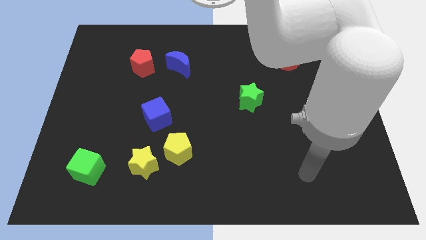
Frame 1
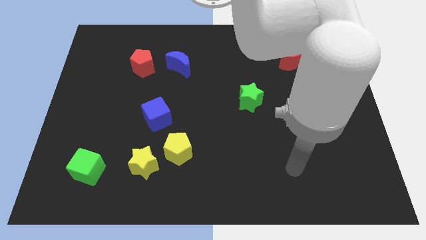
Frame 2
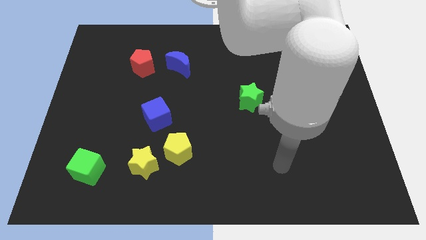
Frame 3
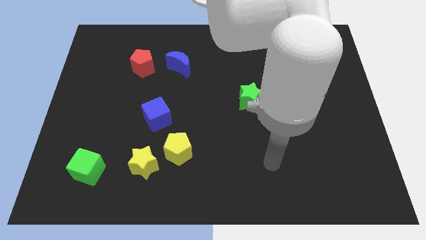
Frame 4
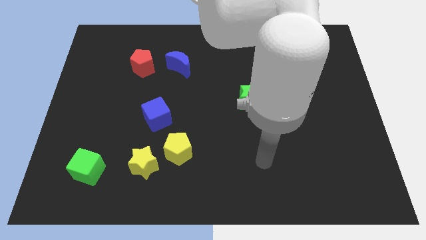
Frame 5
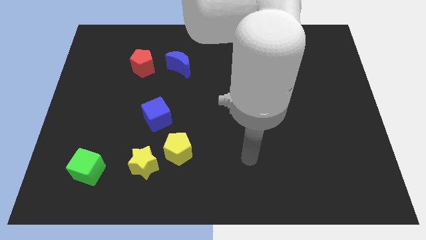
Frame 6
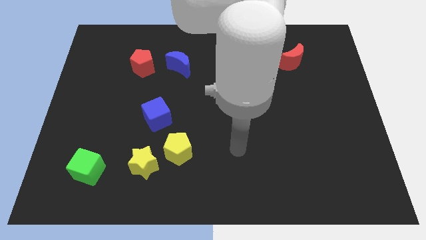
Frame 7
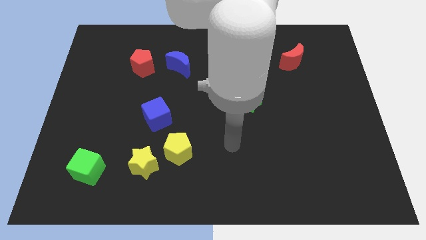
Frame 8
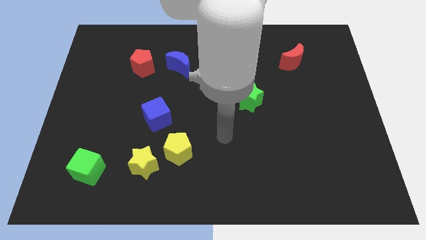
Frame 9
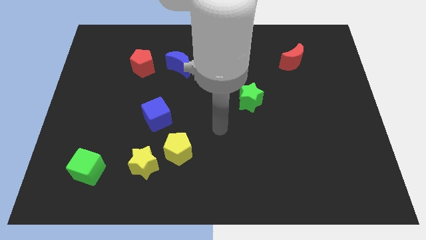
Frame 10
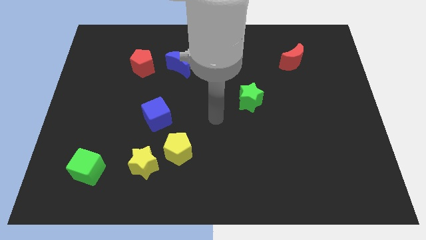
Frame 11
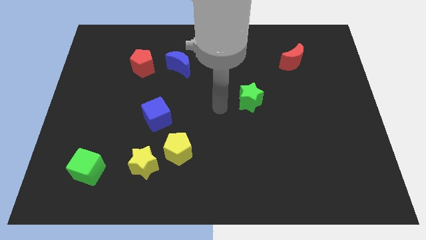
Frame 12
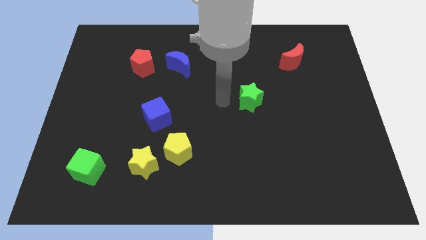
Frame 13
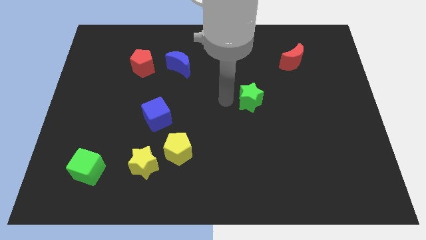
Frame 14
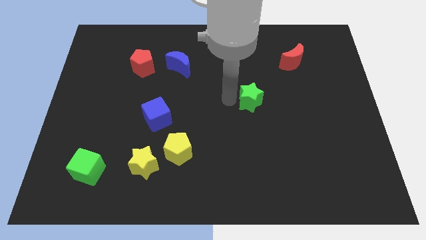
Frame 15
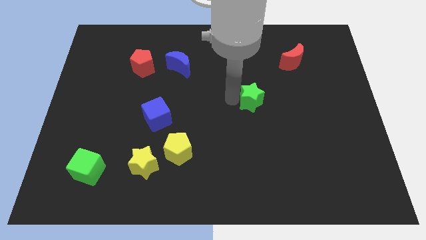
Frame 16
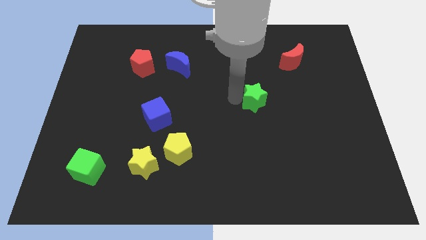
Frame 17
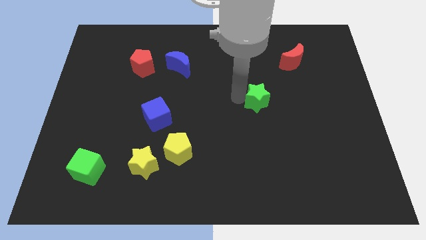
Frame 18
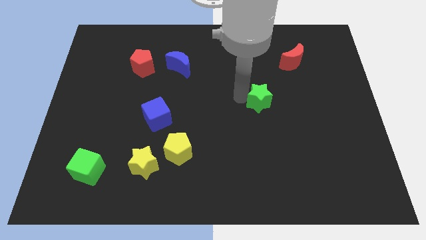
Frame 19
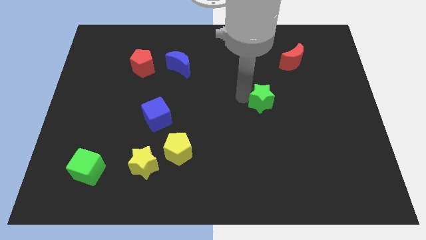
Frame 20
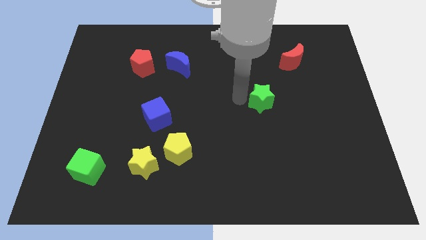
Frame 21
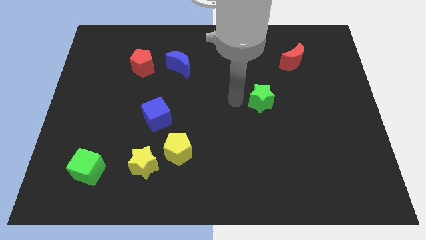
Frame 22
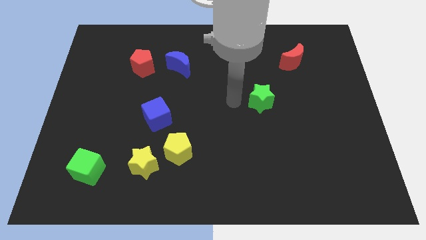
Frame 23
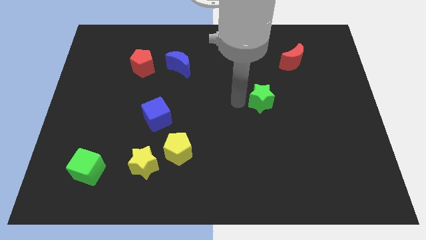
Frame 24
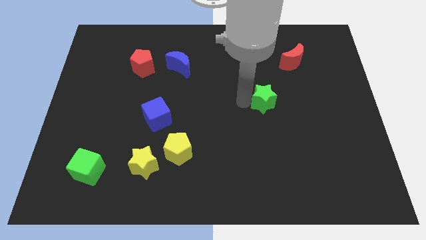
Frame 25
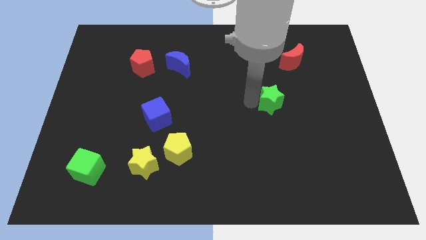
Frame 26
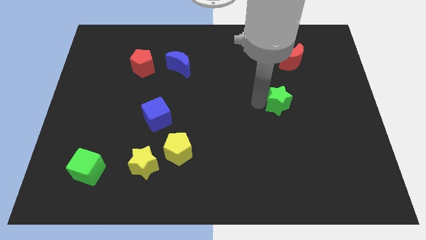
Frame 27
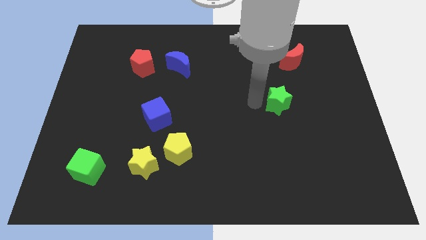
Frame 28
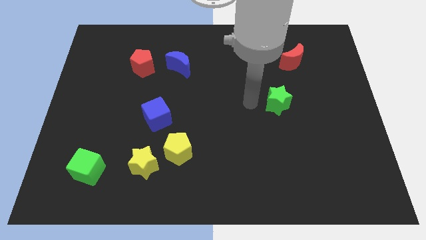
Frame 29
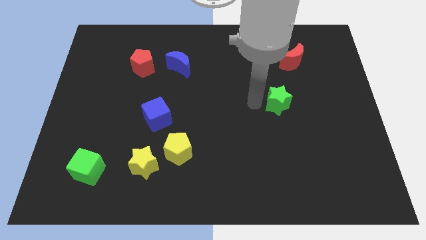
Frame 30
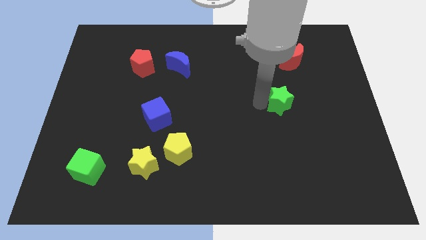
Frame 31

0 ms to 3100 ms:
push the green star a little to the right

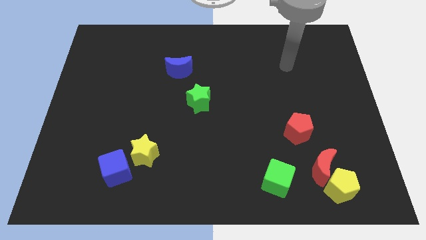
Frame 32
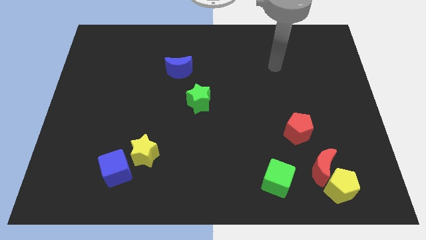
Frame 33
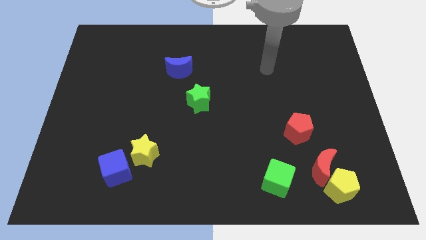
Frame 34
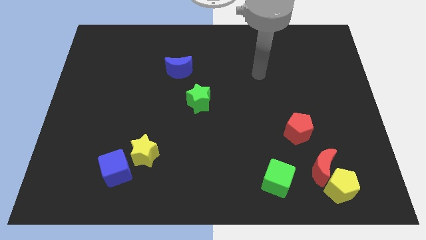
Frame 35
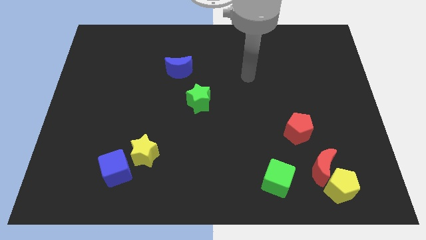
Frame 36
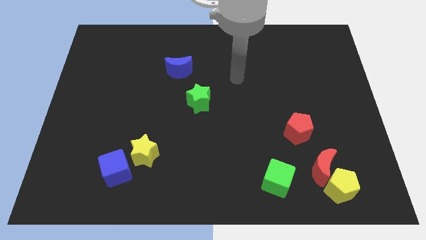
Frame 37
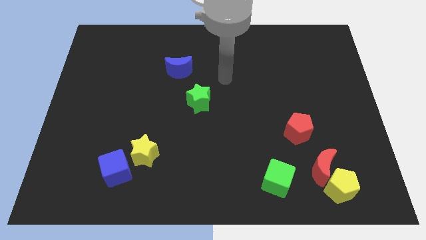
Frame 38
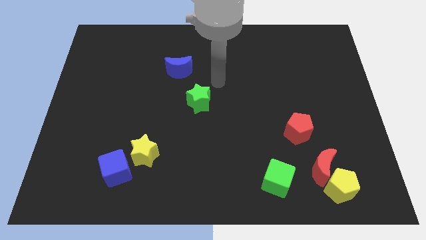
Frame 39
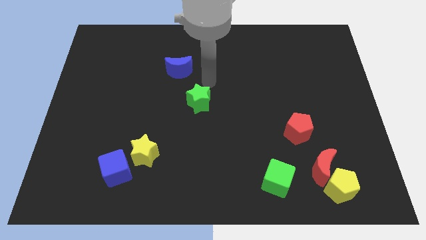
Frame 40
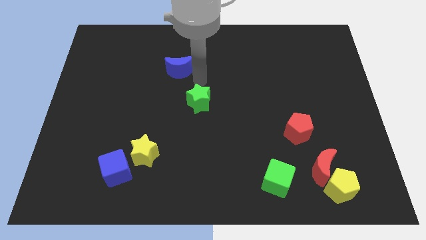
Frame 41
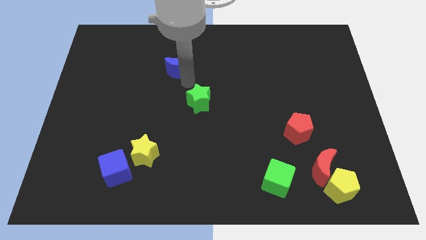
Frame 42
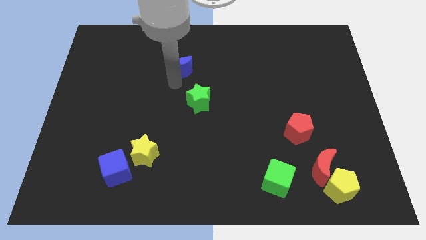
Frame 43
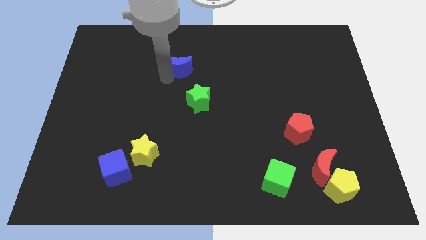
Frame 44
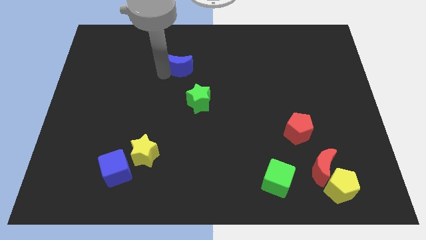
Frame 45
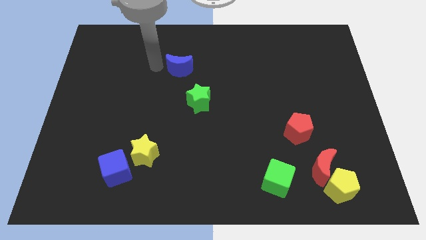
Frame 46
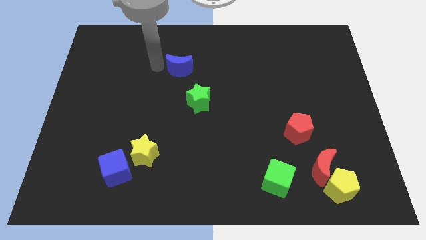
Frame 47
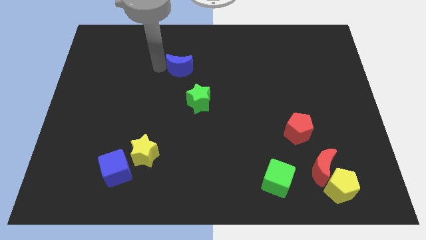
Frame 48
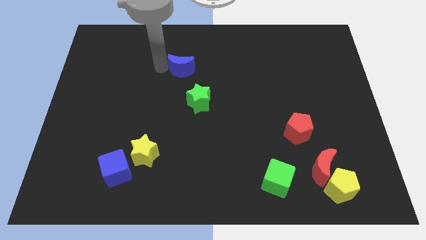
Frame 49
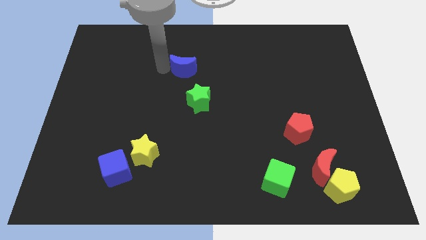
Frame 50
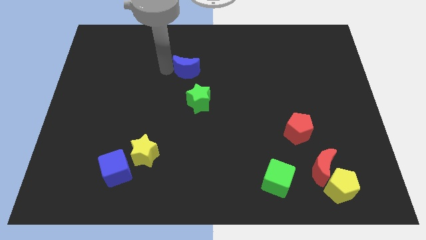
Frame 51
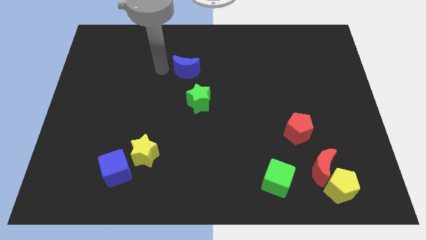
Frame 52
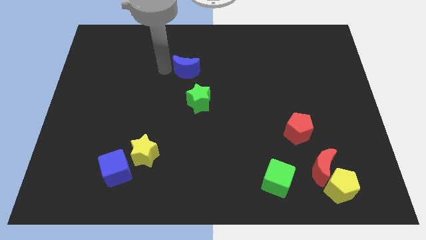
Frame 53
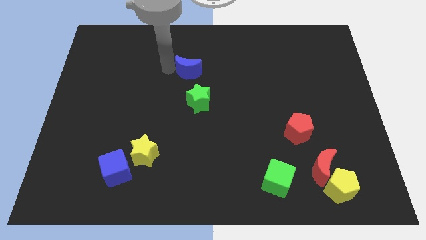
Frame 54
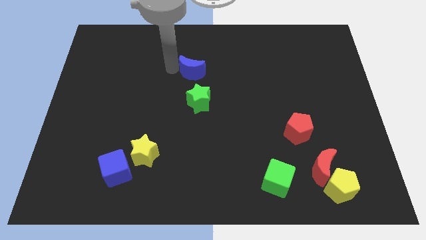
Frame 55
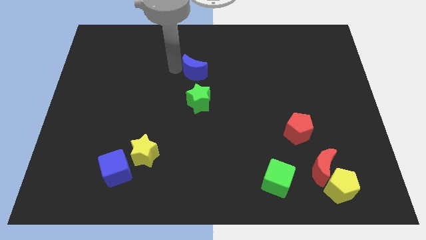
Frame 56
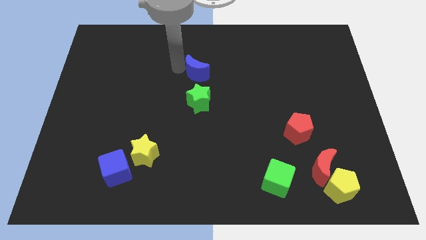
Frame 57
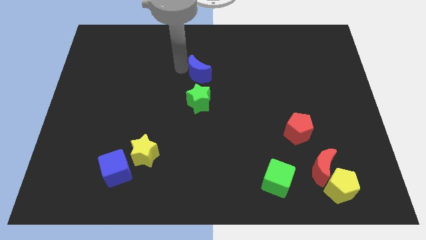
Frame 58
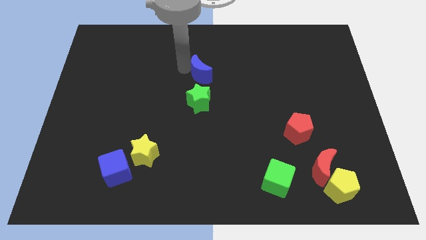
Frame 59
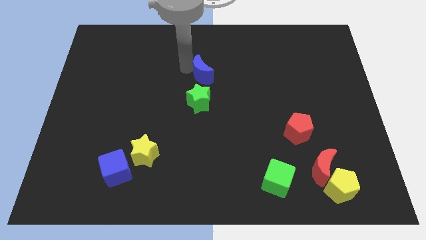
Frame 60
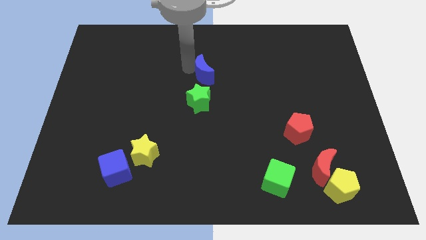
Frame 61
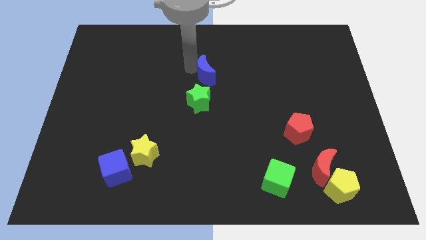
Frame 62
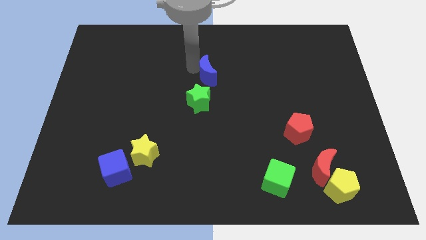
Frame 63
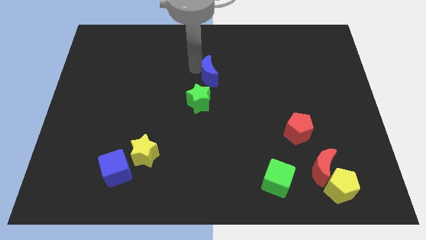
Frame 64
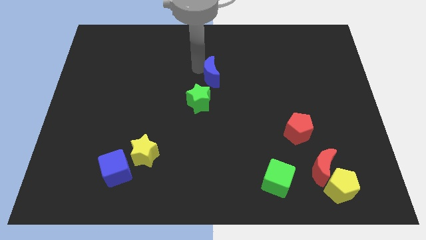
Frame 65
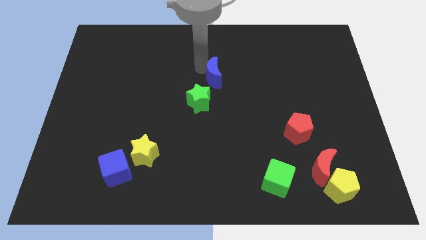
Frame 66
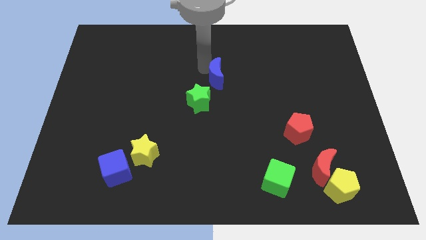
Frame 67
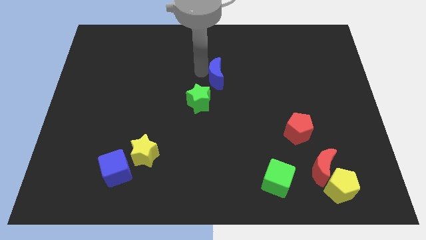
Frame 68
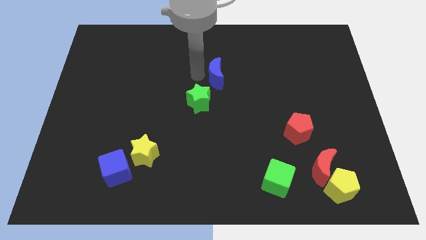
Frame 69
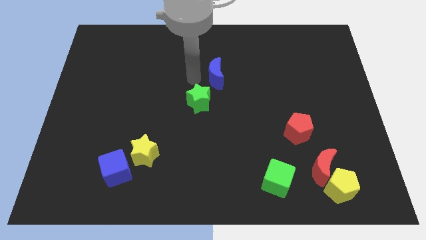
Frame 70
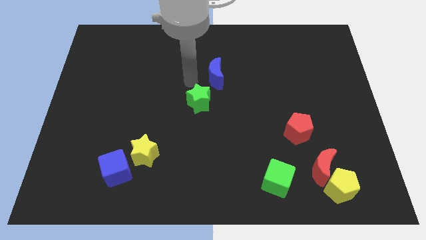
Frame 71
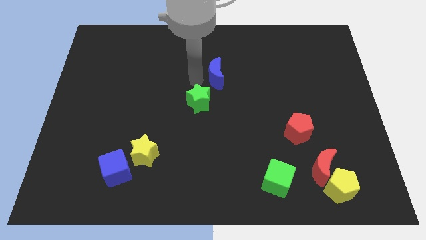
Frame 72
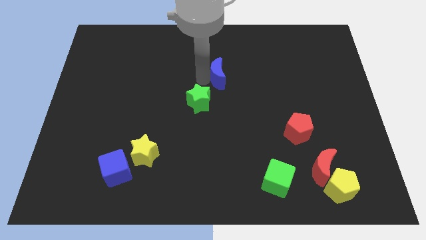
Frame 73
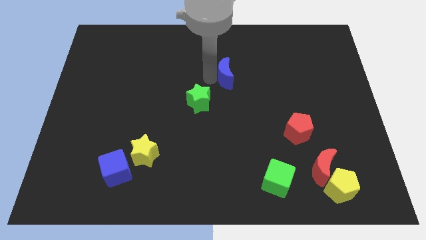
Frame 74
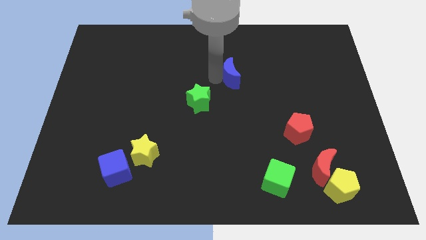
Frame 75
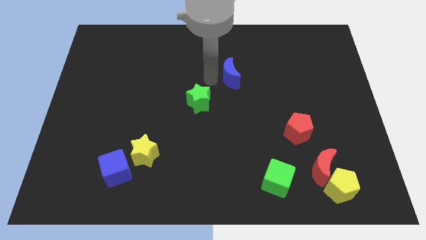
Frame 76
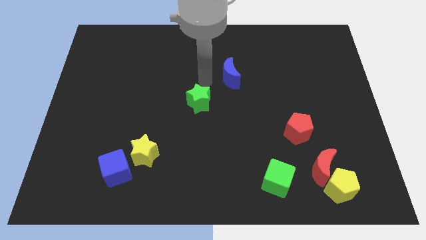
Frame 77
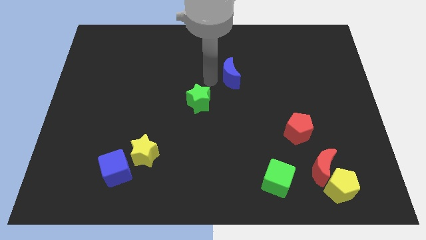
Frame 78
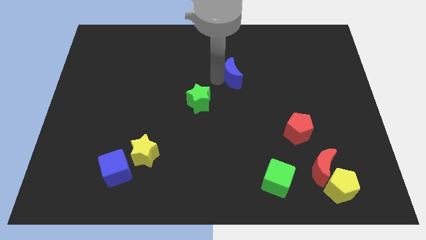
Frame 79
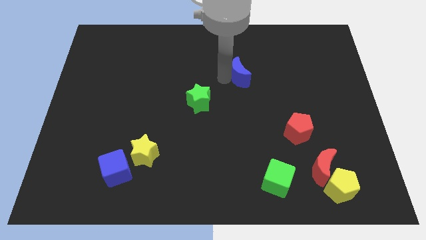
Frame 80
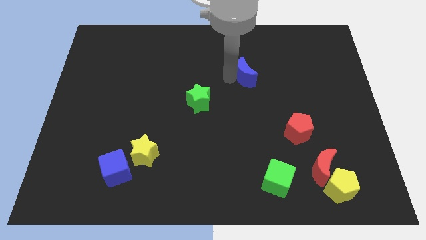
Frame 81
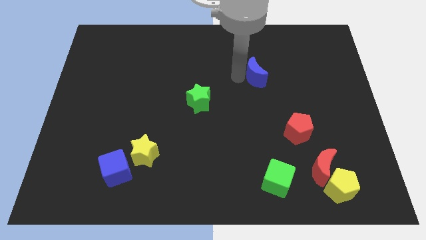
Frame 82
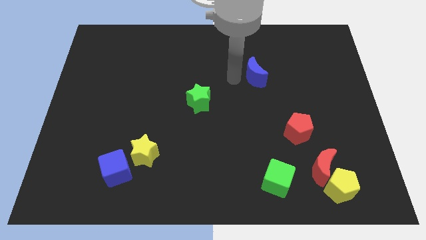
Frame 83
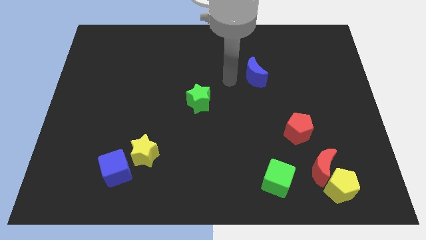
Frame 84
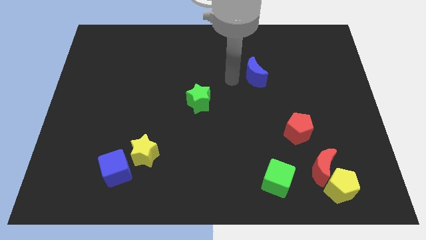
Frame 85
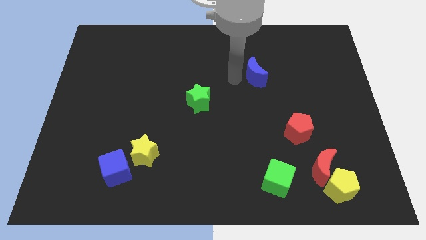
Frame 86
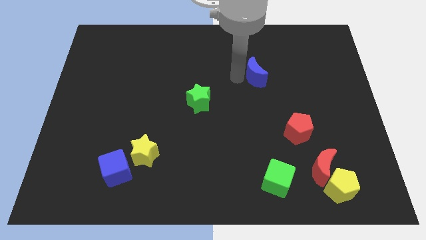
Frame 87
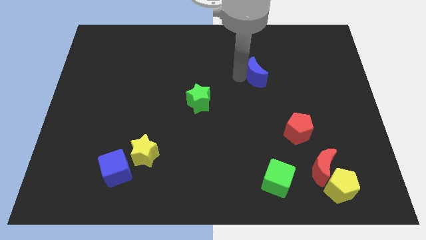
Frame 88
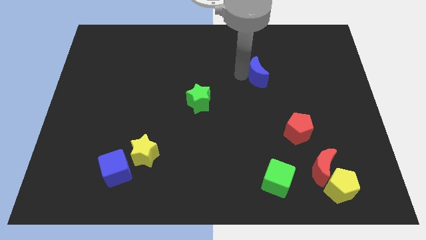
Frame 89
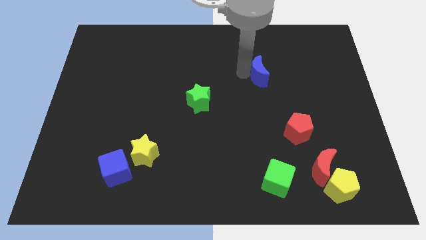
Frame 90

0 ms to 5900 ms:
slide the blue moon right
